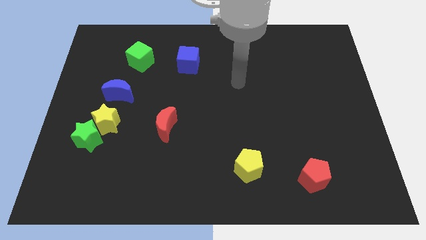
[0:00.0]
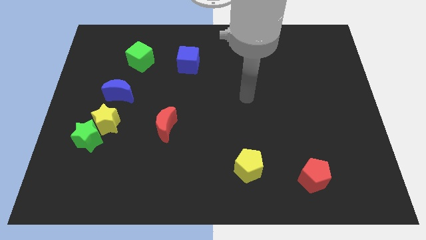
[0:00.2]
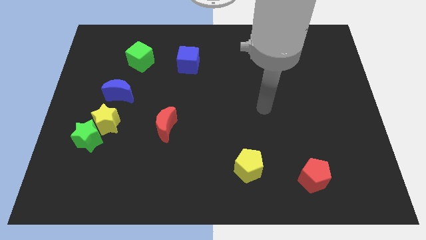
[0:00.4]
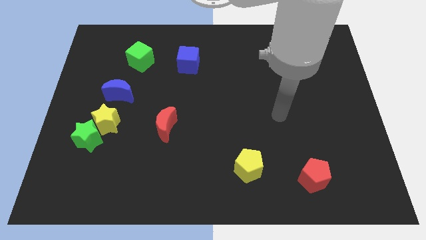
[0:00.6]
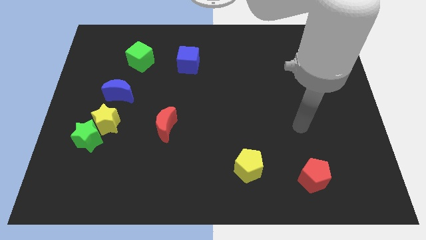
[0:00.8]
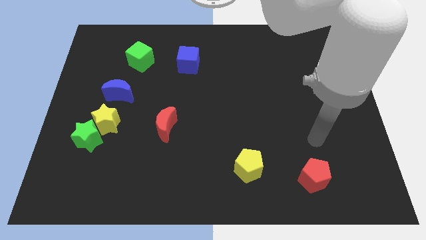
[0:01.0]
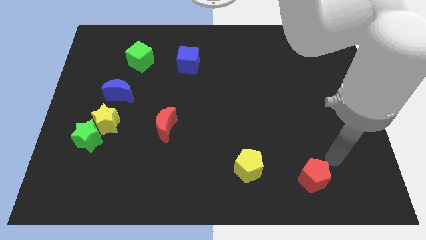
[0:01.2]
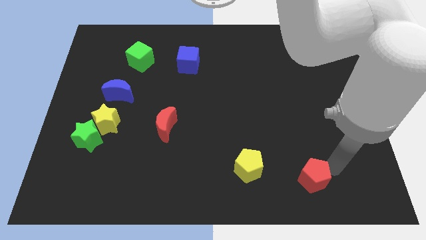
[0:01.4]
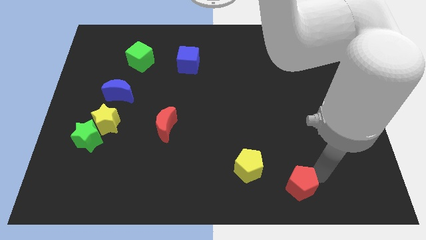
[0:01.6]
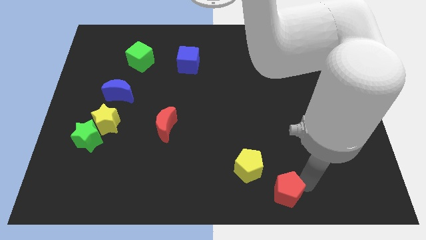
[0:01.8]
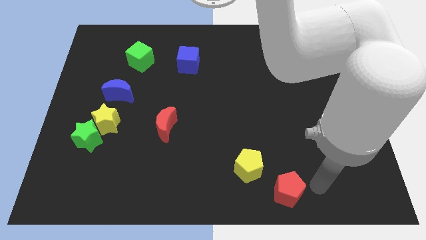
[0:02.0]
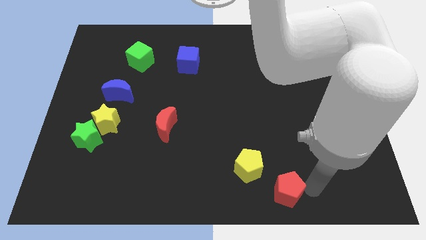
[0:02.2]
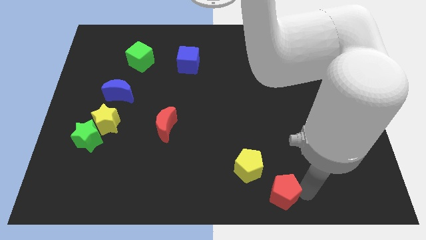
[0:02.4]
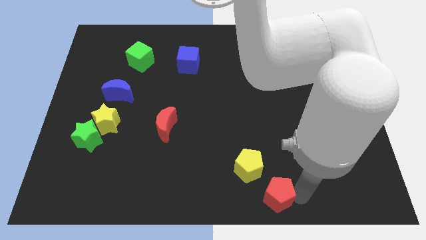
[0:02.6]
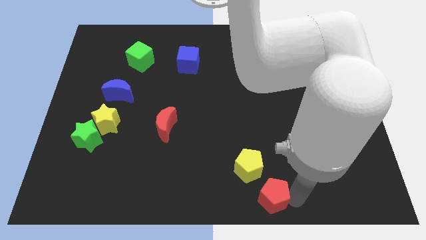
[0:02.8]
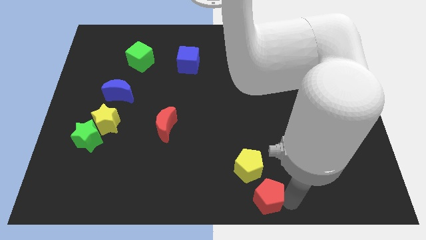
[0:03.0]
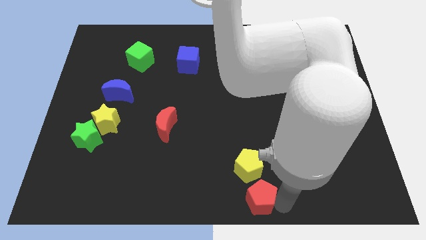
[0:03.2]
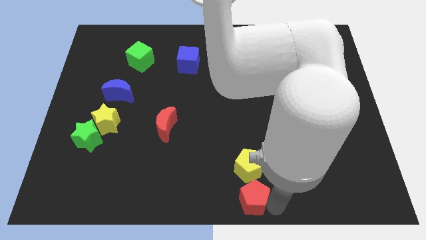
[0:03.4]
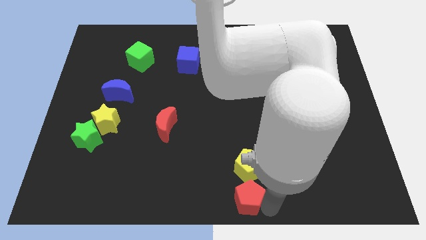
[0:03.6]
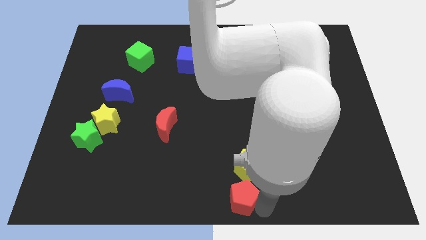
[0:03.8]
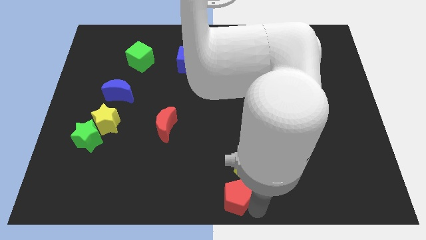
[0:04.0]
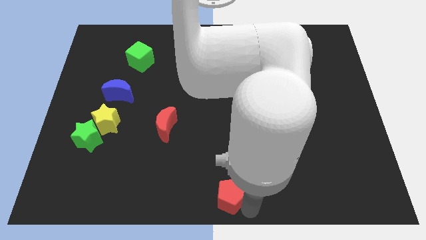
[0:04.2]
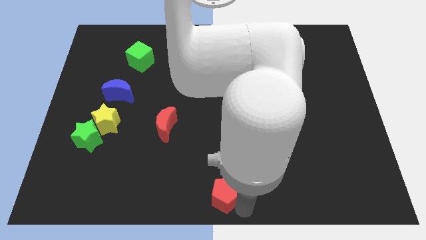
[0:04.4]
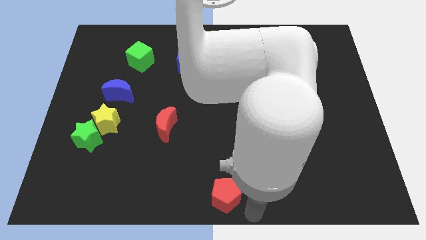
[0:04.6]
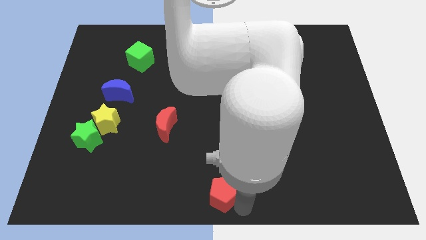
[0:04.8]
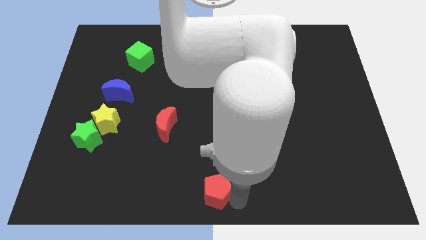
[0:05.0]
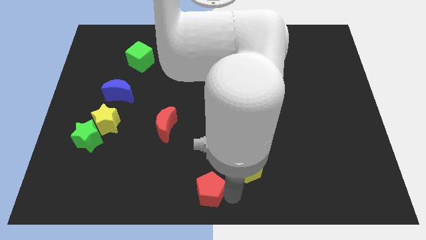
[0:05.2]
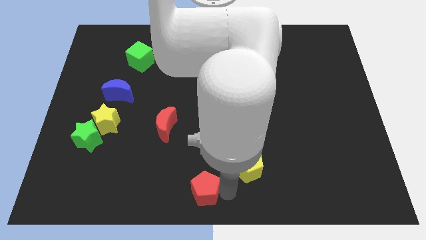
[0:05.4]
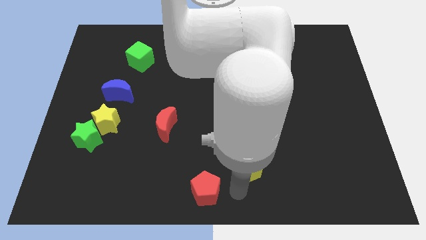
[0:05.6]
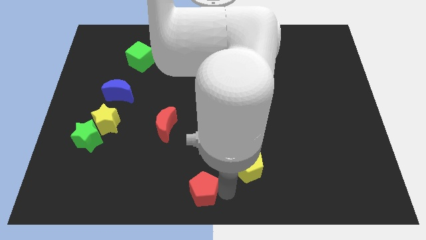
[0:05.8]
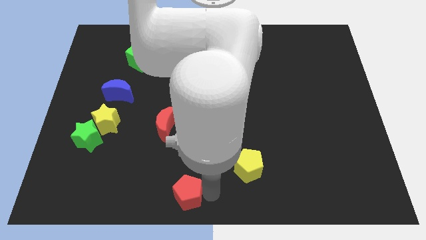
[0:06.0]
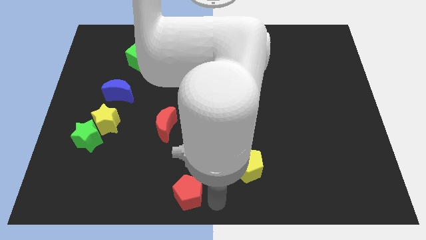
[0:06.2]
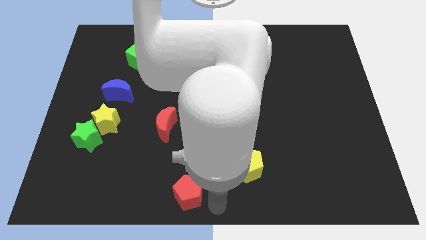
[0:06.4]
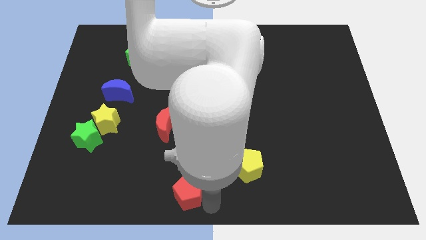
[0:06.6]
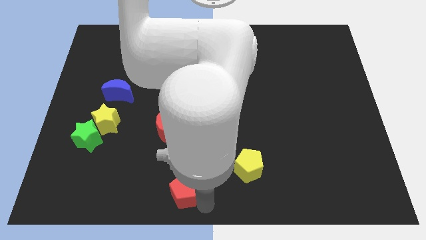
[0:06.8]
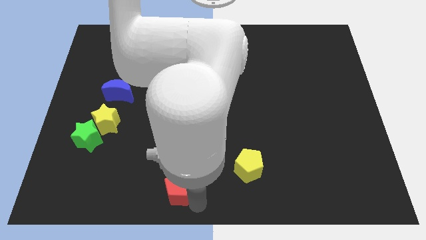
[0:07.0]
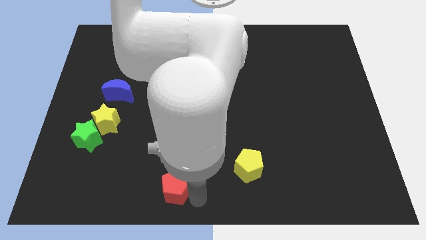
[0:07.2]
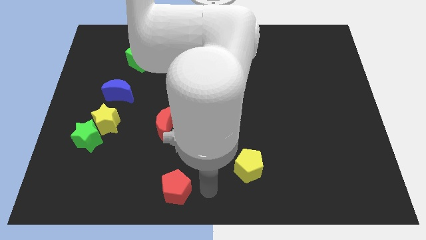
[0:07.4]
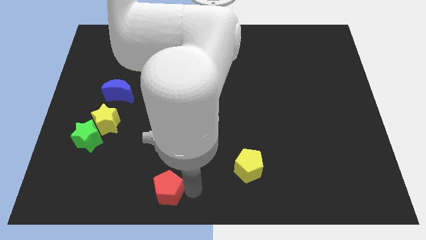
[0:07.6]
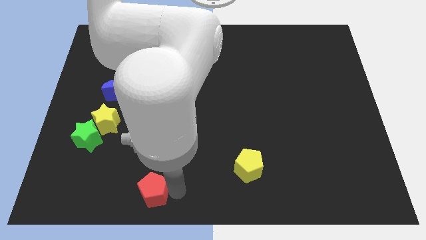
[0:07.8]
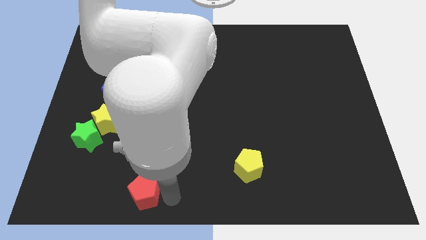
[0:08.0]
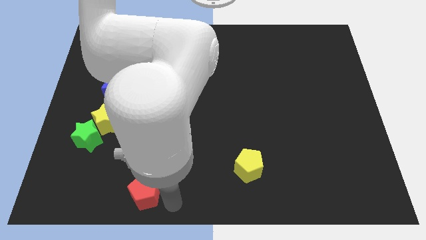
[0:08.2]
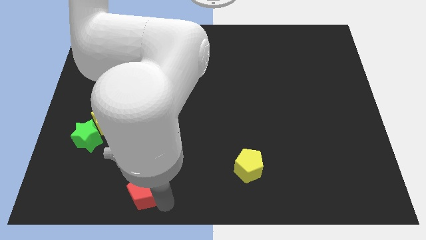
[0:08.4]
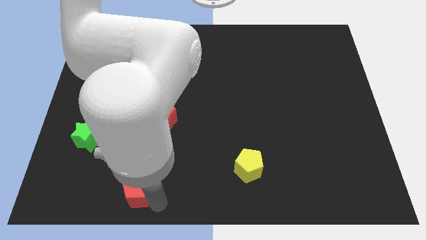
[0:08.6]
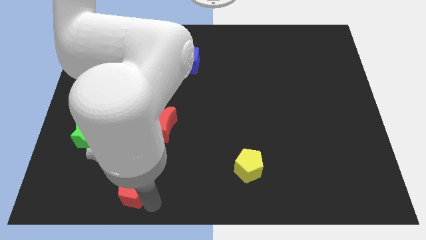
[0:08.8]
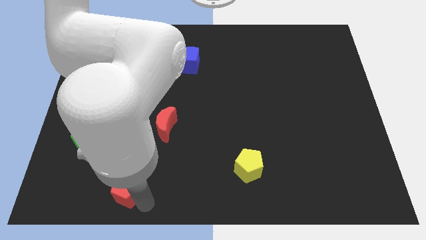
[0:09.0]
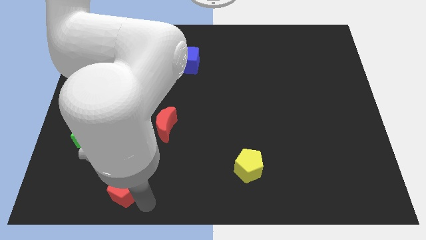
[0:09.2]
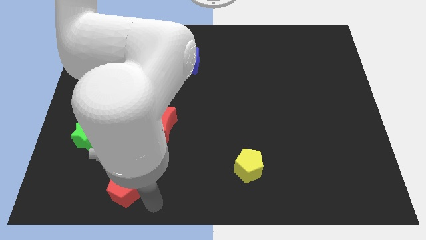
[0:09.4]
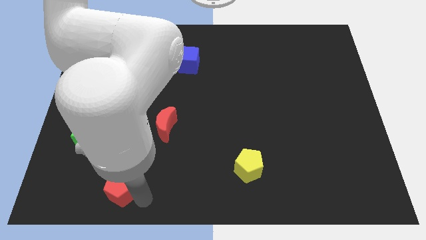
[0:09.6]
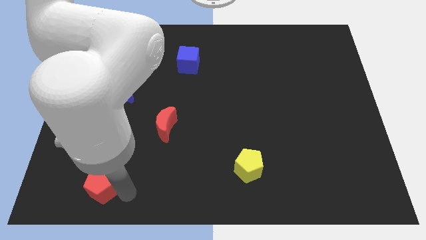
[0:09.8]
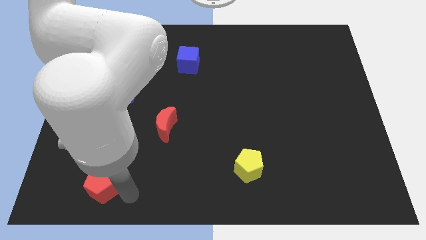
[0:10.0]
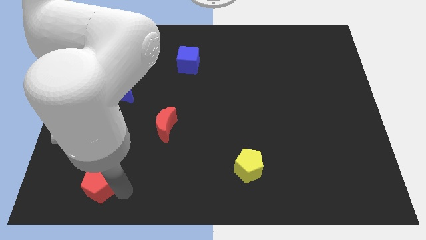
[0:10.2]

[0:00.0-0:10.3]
move the red pentagon to the bottom side of the green star

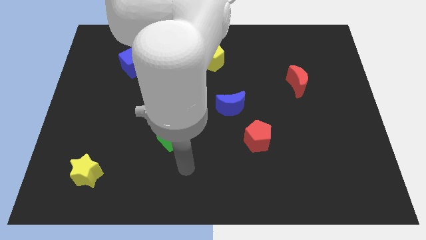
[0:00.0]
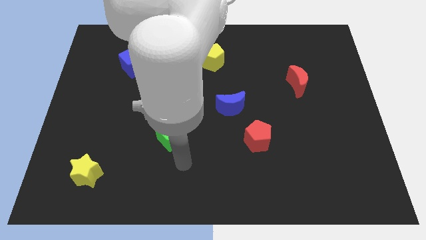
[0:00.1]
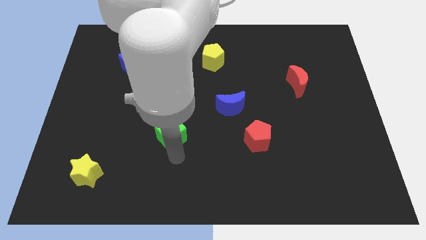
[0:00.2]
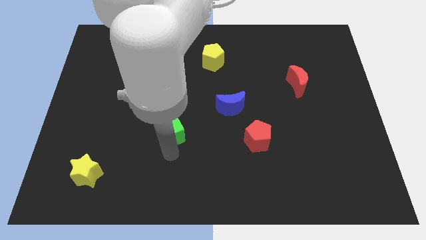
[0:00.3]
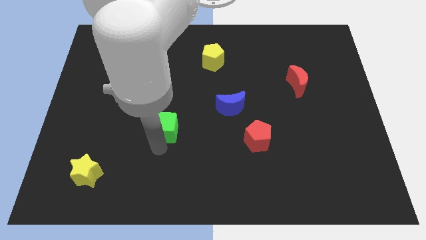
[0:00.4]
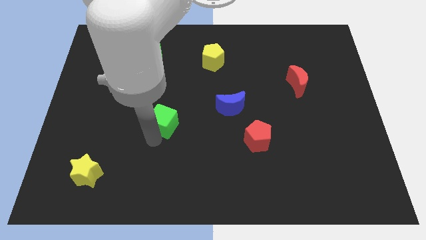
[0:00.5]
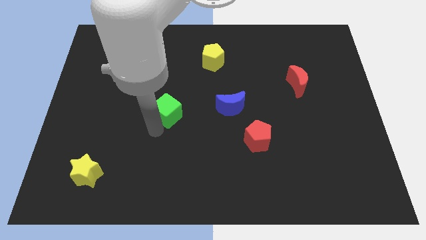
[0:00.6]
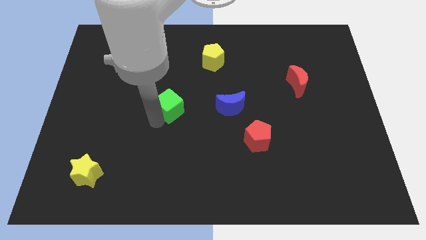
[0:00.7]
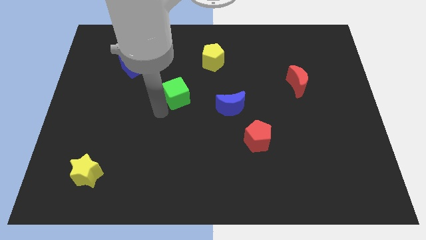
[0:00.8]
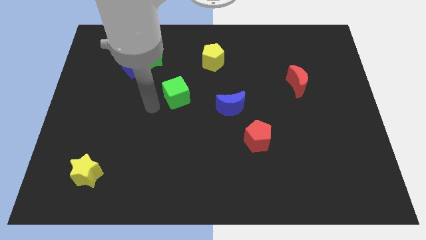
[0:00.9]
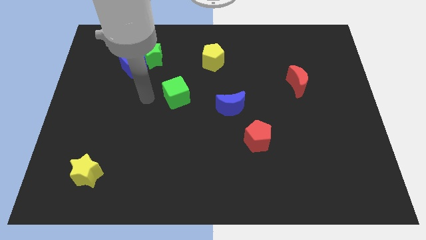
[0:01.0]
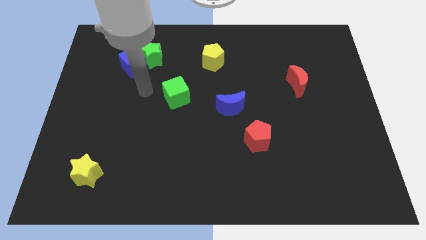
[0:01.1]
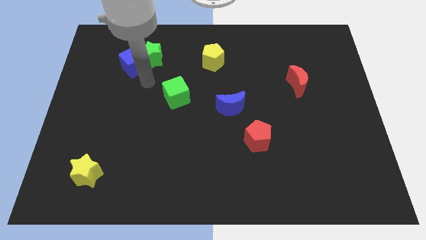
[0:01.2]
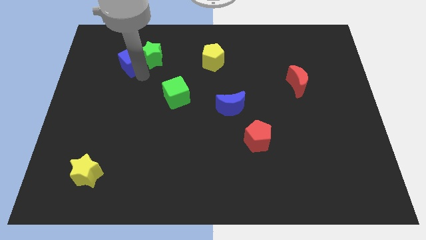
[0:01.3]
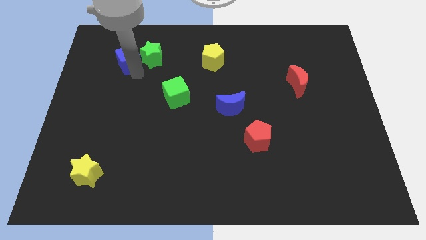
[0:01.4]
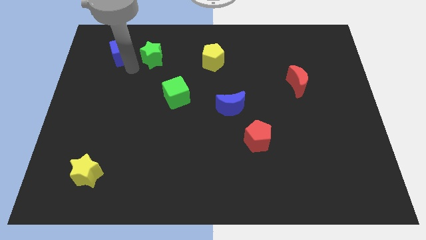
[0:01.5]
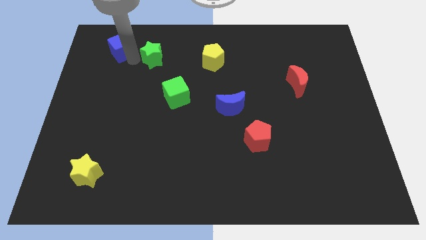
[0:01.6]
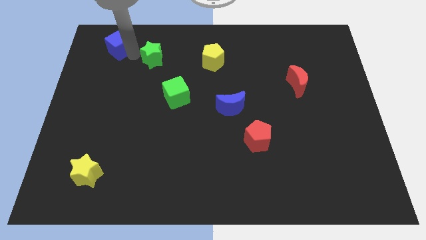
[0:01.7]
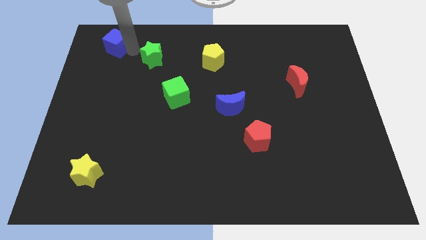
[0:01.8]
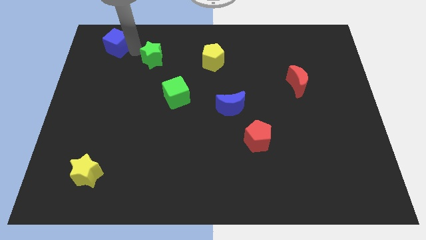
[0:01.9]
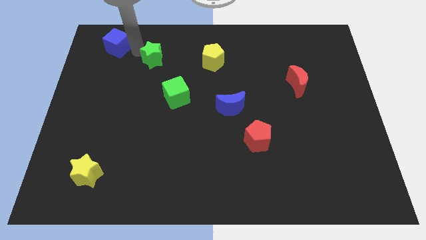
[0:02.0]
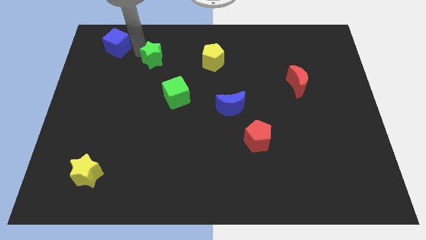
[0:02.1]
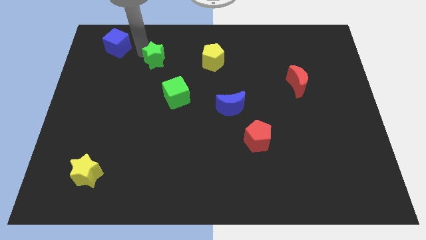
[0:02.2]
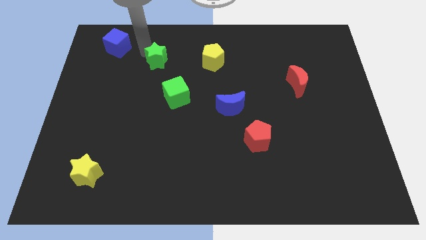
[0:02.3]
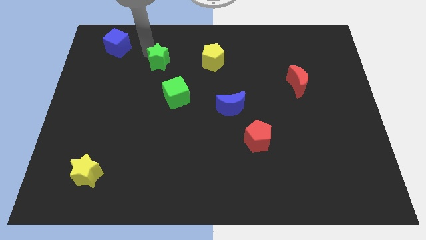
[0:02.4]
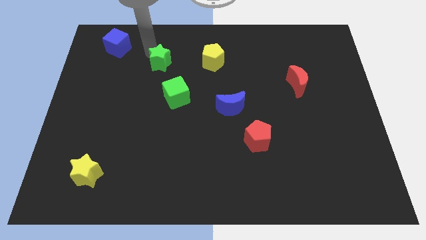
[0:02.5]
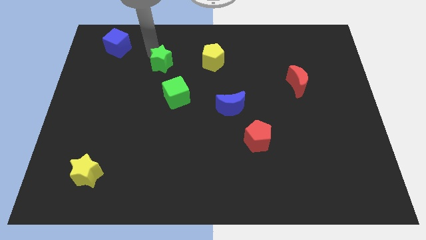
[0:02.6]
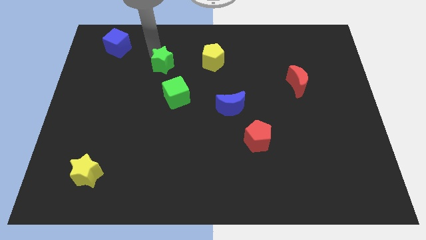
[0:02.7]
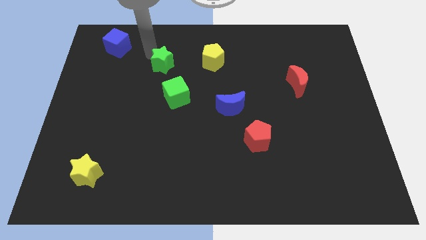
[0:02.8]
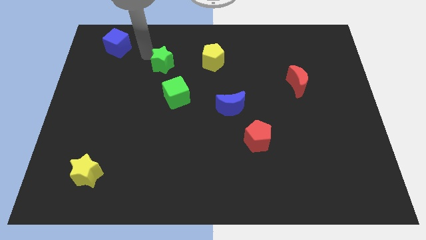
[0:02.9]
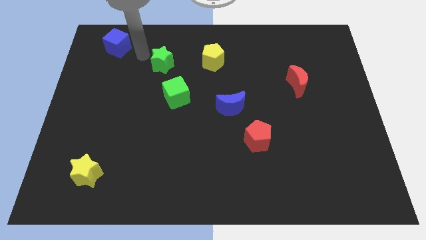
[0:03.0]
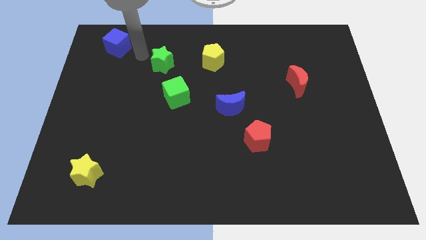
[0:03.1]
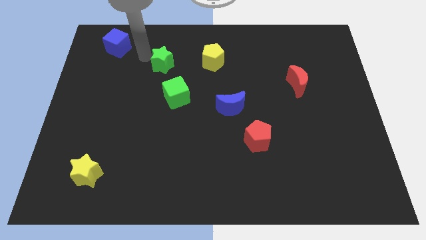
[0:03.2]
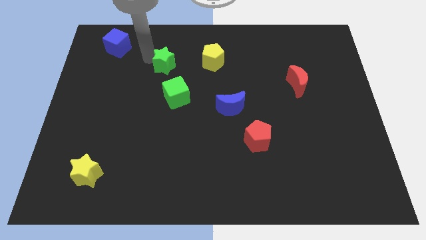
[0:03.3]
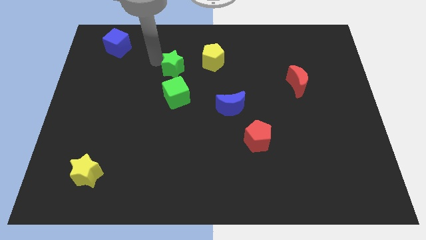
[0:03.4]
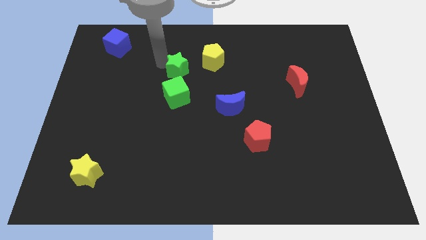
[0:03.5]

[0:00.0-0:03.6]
push the green star to the bottom left side of the yellow pentagon
